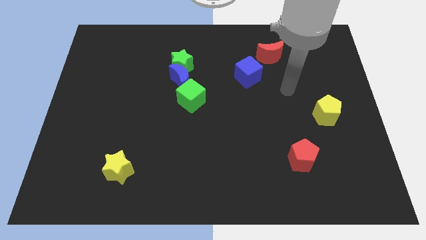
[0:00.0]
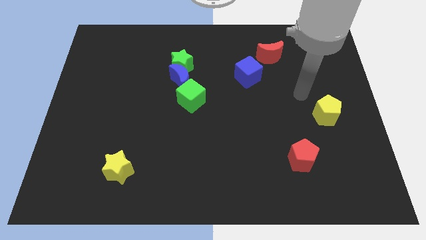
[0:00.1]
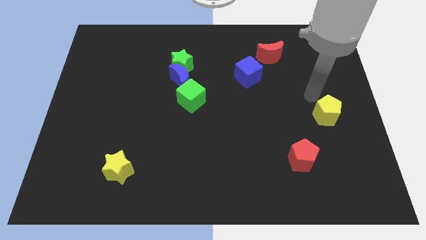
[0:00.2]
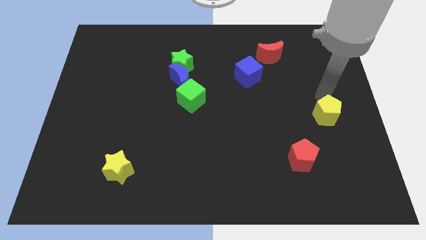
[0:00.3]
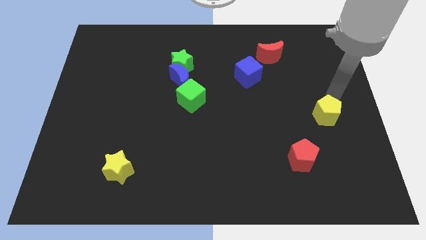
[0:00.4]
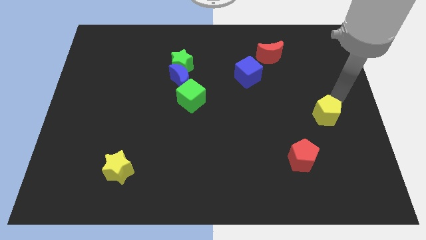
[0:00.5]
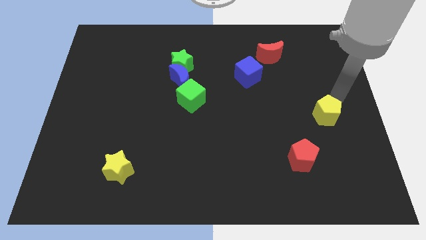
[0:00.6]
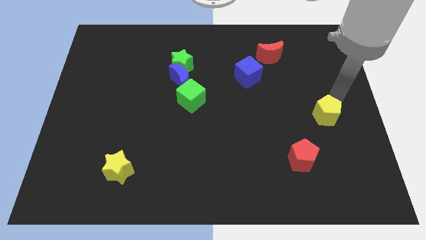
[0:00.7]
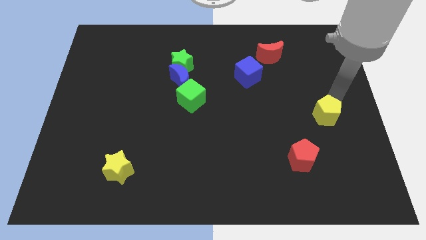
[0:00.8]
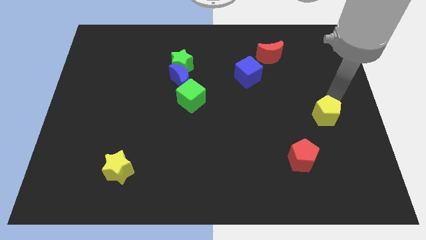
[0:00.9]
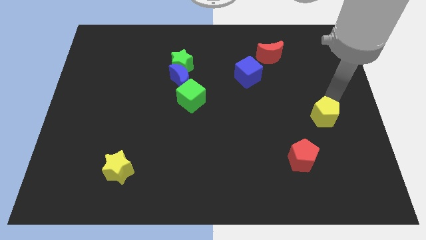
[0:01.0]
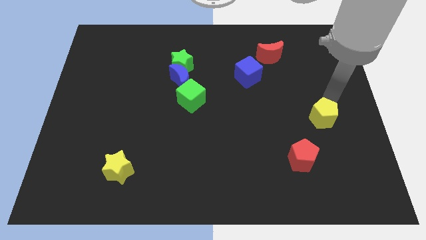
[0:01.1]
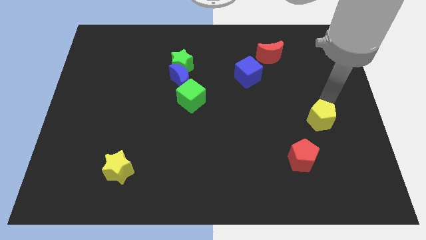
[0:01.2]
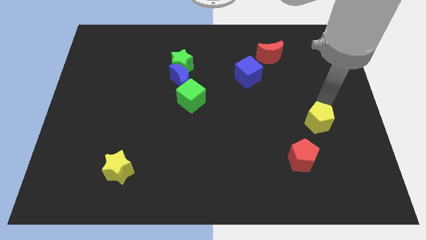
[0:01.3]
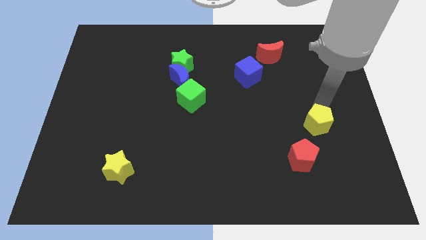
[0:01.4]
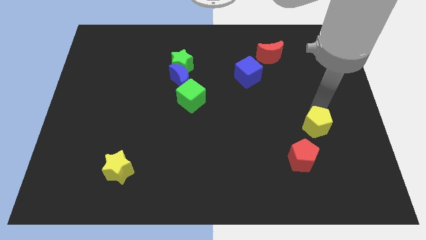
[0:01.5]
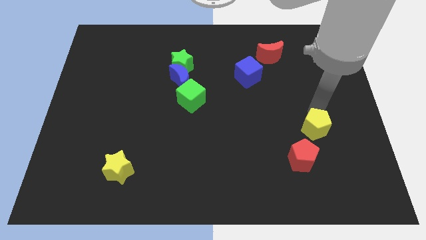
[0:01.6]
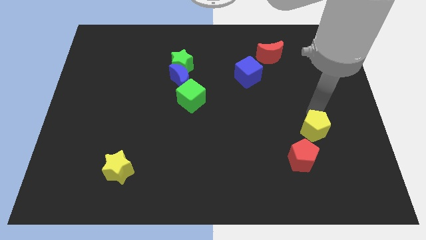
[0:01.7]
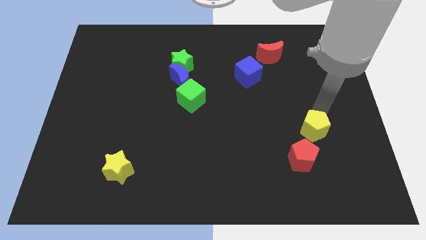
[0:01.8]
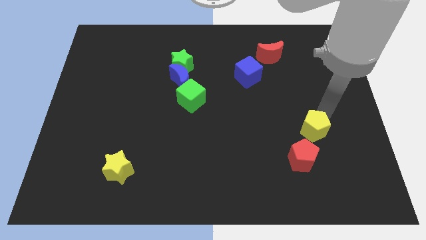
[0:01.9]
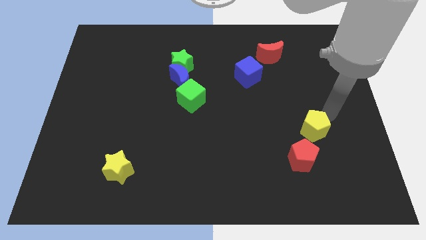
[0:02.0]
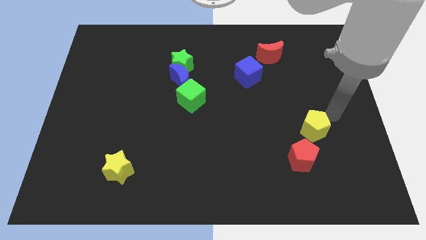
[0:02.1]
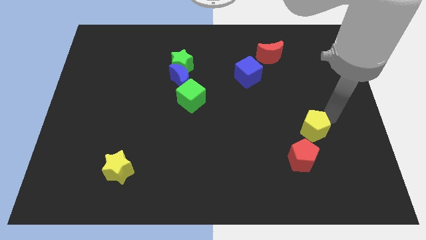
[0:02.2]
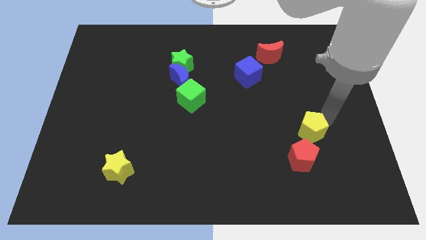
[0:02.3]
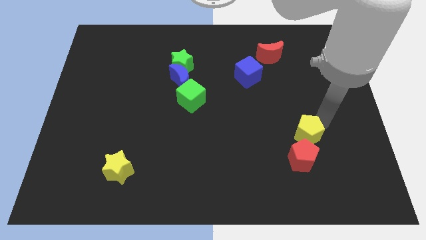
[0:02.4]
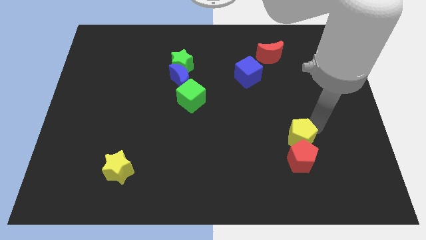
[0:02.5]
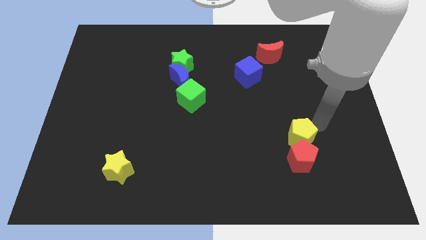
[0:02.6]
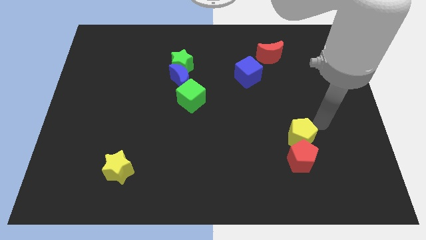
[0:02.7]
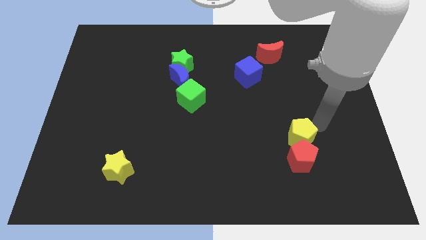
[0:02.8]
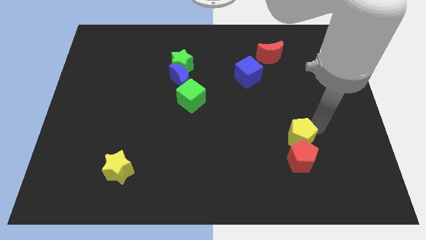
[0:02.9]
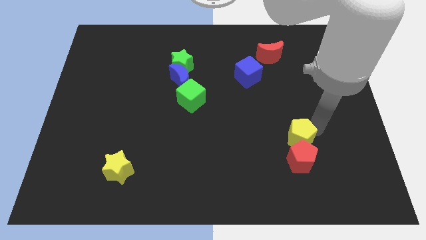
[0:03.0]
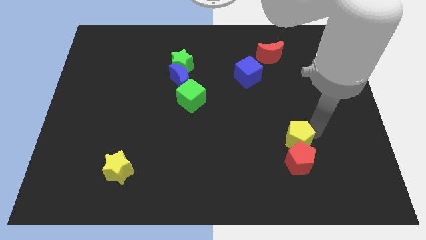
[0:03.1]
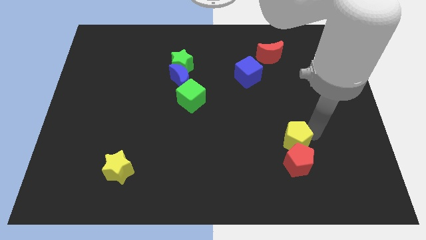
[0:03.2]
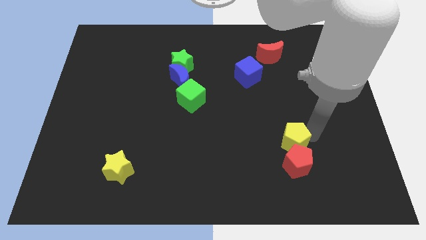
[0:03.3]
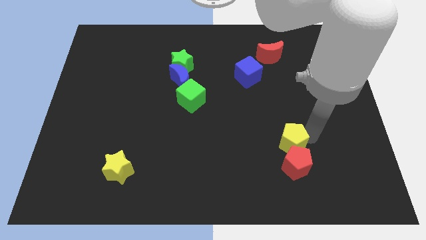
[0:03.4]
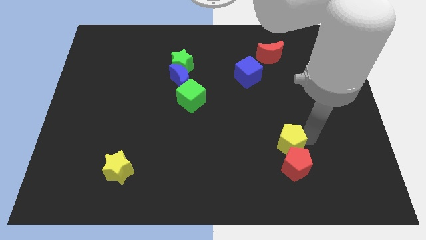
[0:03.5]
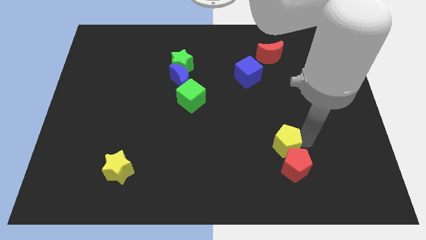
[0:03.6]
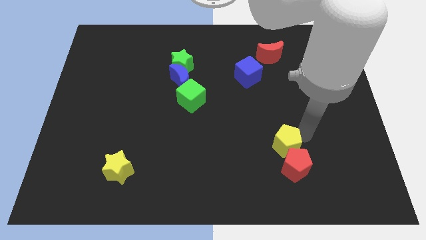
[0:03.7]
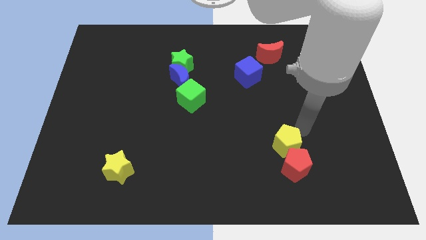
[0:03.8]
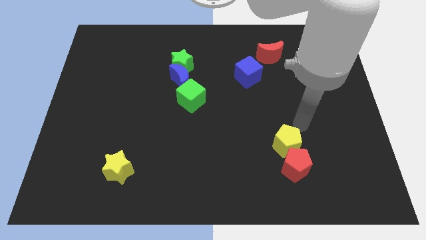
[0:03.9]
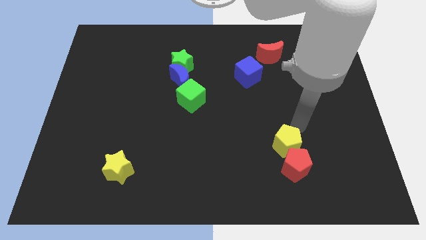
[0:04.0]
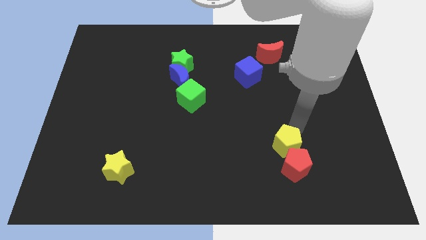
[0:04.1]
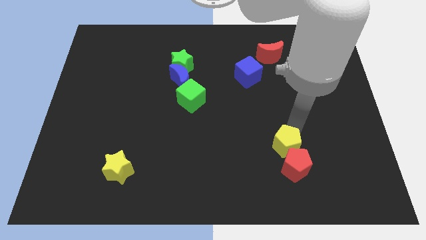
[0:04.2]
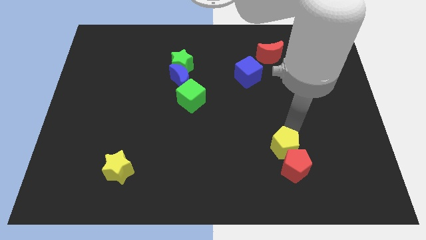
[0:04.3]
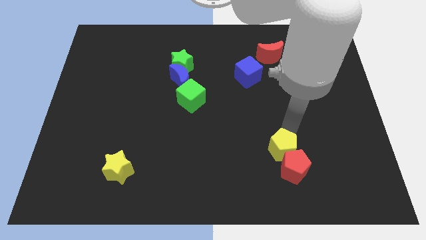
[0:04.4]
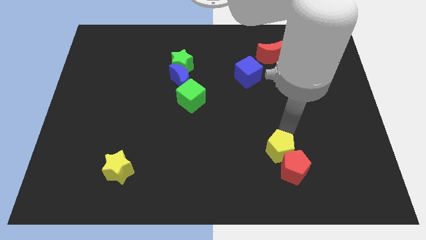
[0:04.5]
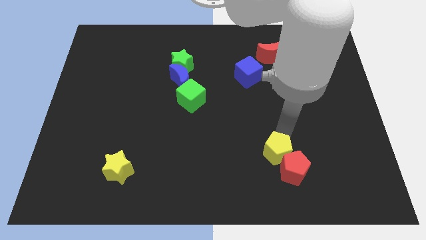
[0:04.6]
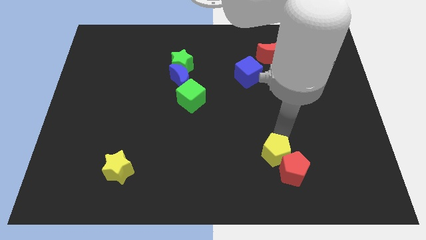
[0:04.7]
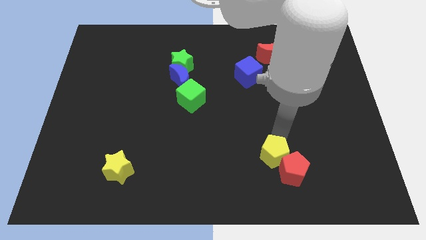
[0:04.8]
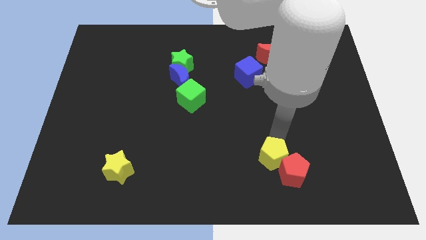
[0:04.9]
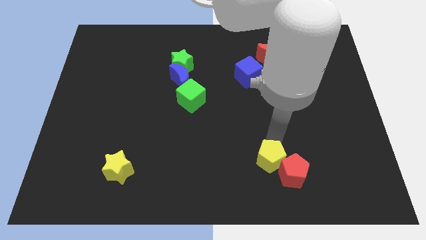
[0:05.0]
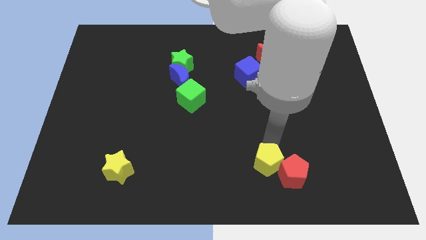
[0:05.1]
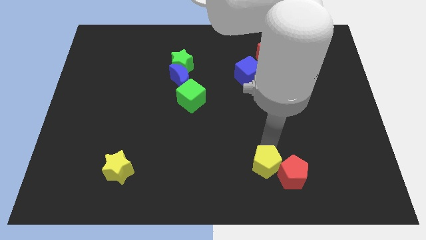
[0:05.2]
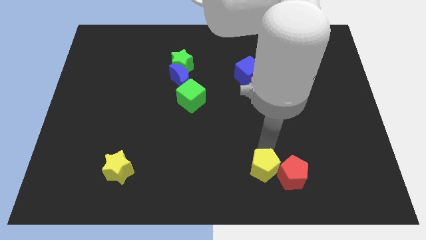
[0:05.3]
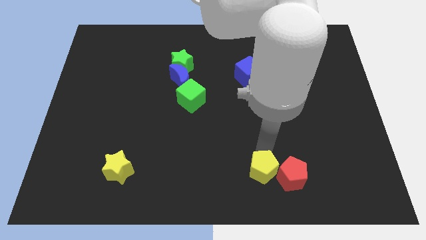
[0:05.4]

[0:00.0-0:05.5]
put the yellow pentagon to the bottom side

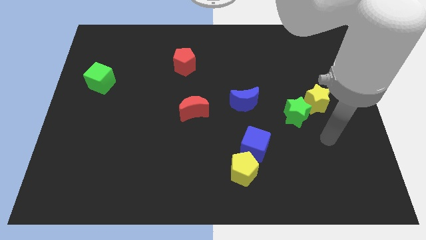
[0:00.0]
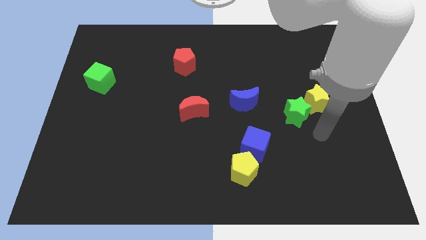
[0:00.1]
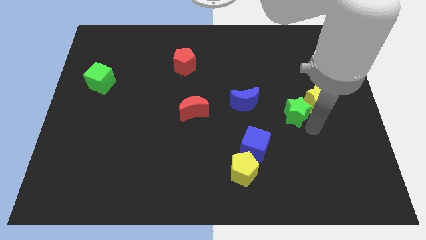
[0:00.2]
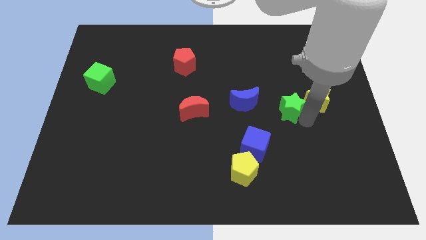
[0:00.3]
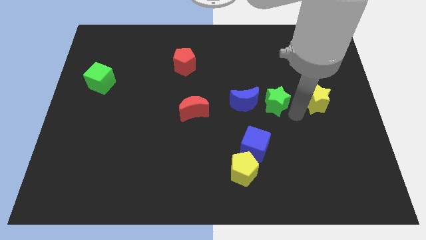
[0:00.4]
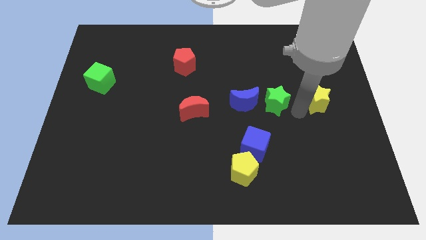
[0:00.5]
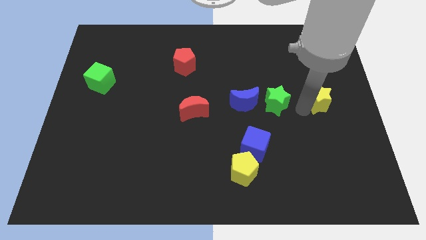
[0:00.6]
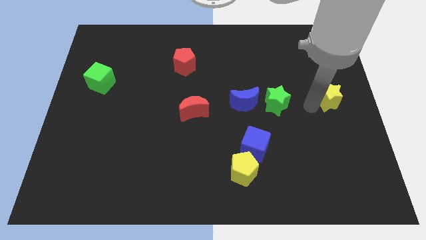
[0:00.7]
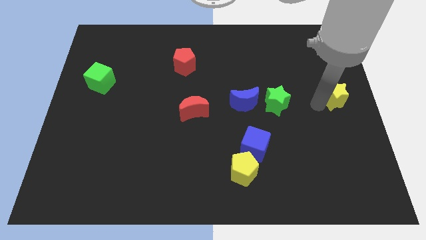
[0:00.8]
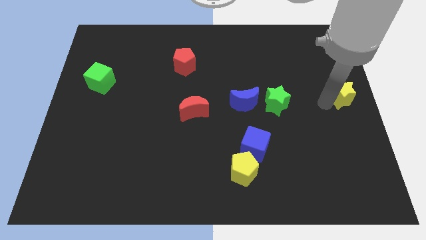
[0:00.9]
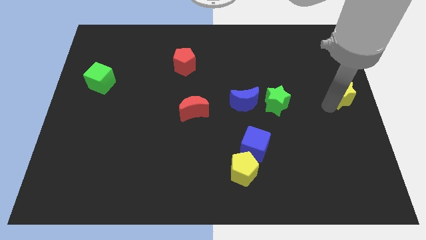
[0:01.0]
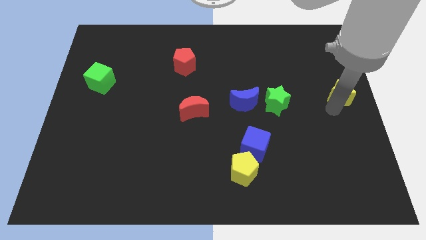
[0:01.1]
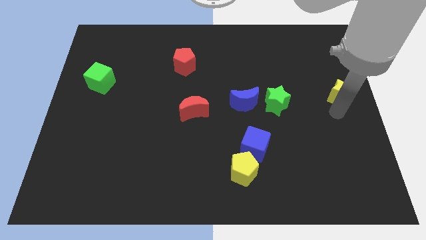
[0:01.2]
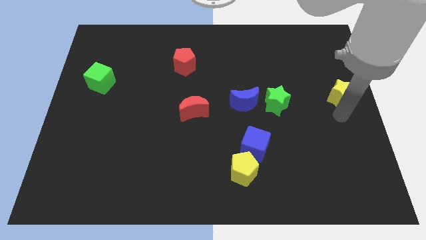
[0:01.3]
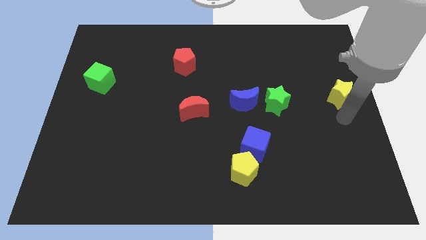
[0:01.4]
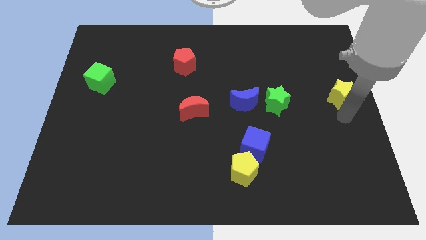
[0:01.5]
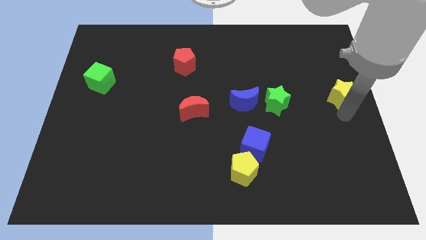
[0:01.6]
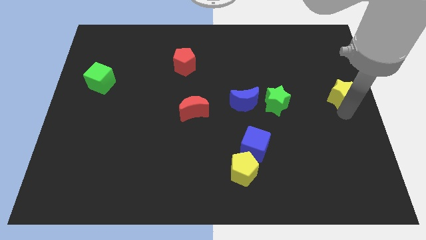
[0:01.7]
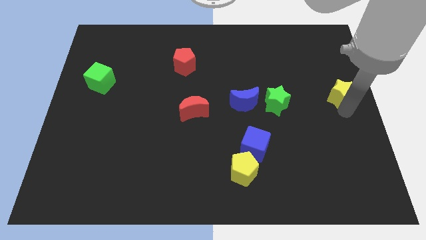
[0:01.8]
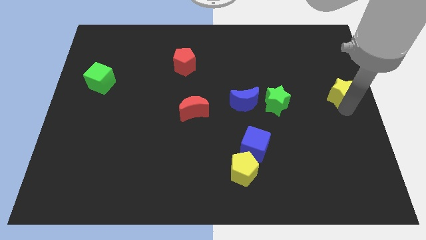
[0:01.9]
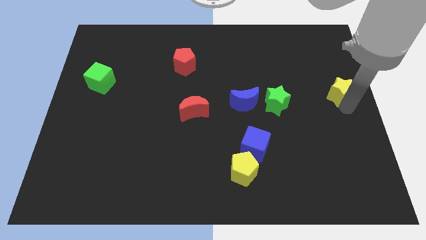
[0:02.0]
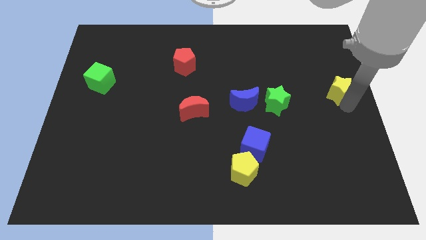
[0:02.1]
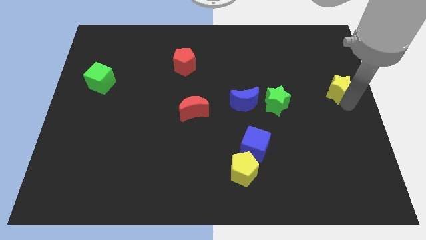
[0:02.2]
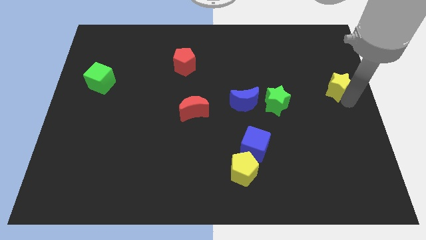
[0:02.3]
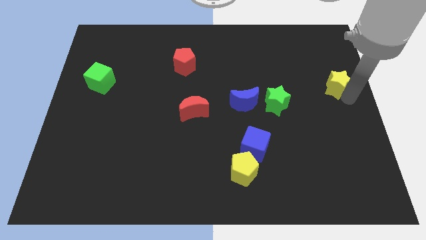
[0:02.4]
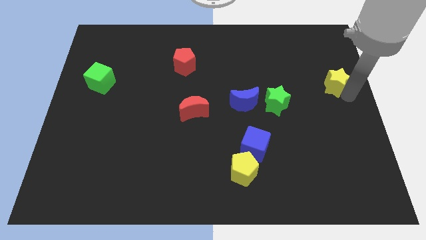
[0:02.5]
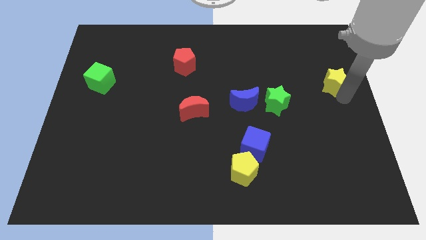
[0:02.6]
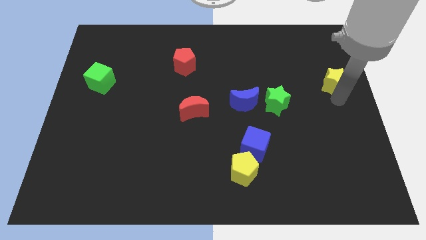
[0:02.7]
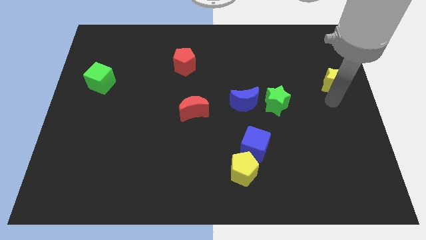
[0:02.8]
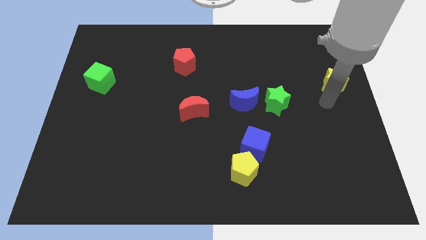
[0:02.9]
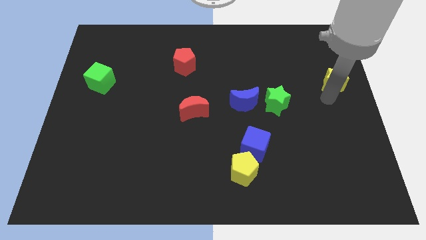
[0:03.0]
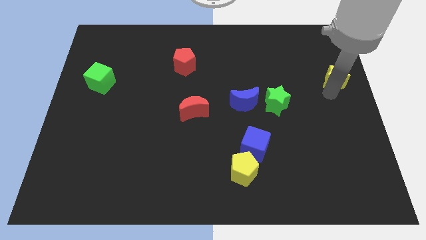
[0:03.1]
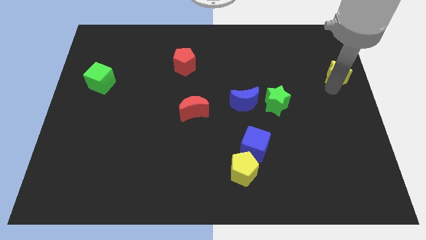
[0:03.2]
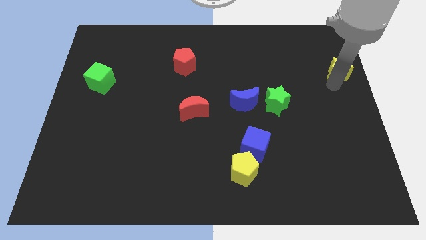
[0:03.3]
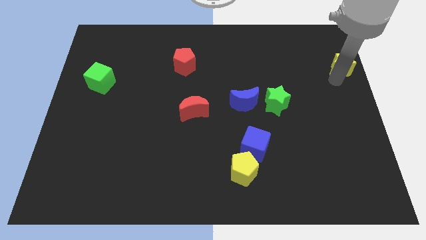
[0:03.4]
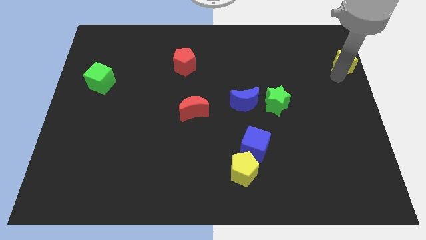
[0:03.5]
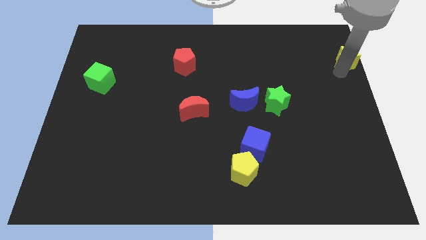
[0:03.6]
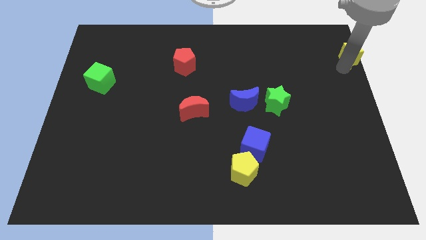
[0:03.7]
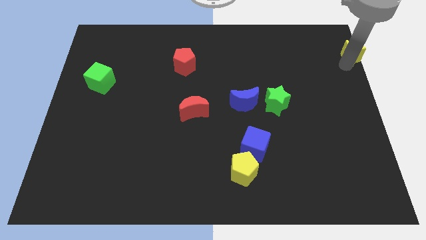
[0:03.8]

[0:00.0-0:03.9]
move the yellow star to the upper right corner
